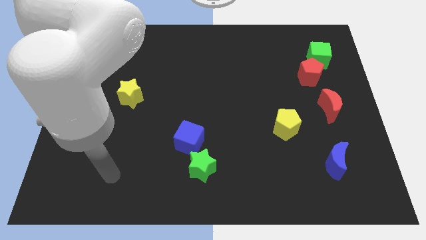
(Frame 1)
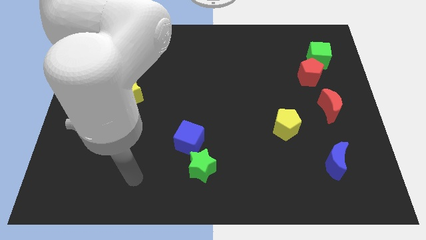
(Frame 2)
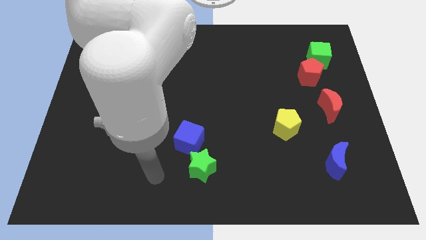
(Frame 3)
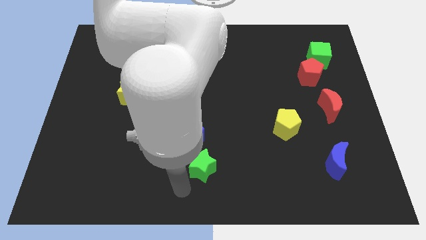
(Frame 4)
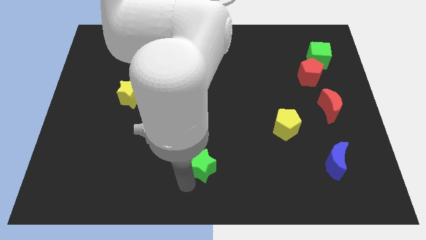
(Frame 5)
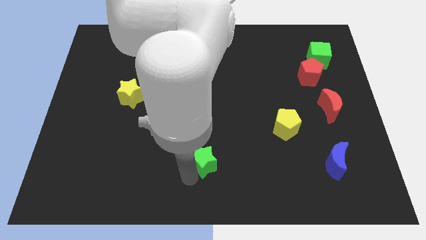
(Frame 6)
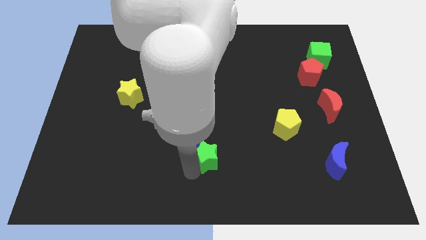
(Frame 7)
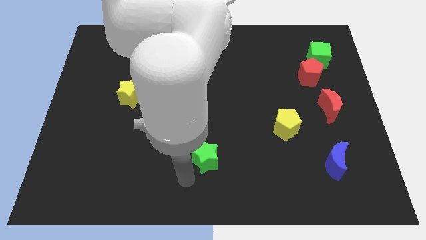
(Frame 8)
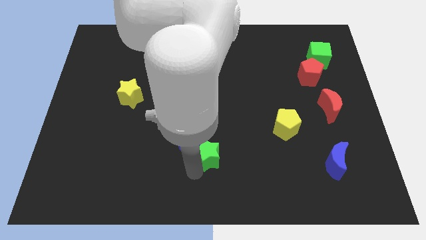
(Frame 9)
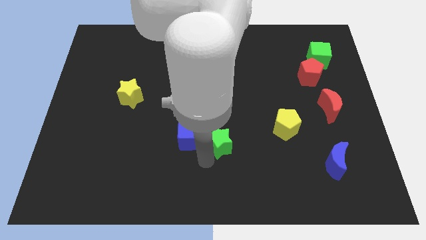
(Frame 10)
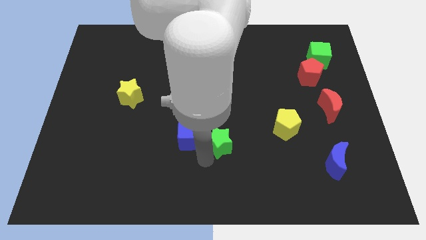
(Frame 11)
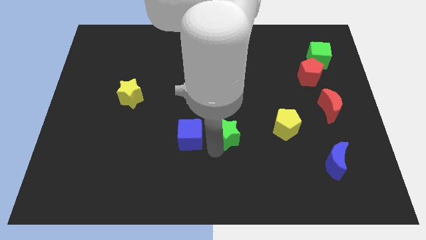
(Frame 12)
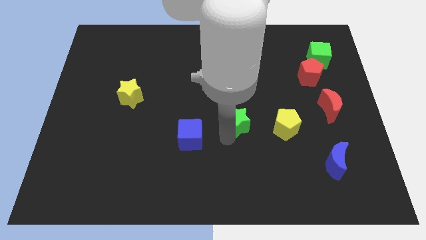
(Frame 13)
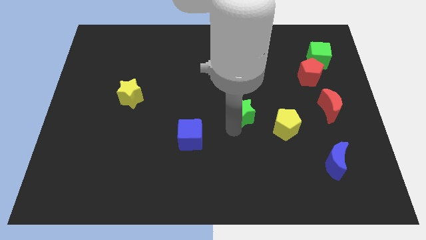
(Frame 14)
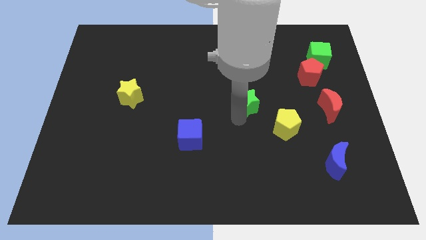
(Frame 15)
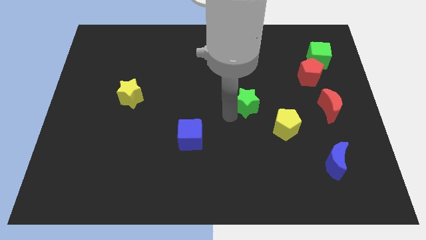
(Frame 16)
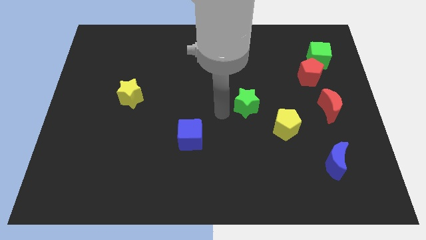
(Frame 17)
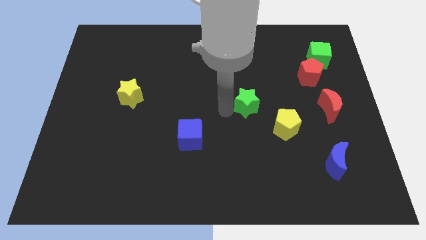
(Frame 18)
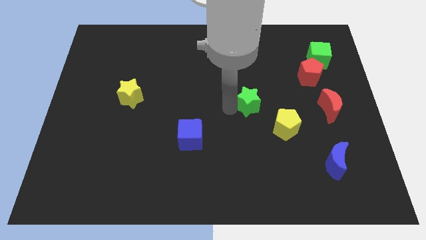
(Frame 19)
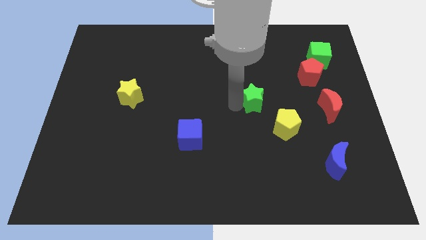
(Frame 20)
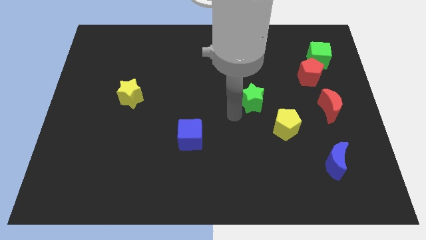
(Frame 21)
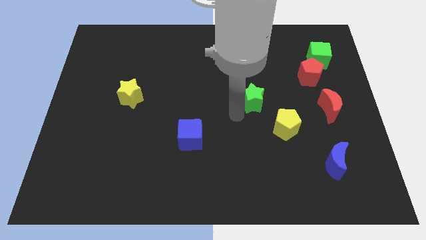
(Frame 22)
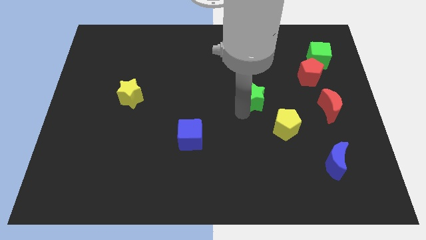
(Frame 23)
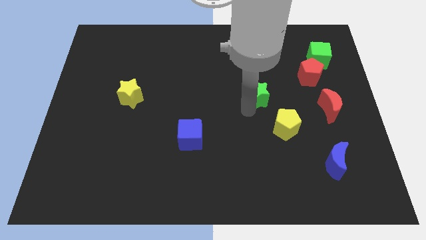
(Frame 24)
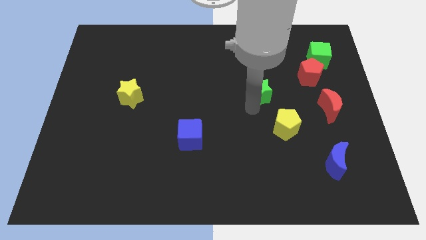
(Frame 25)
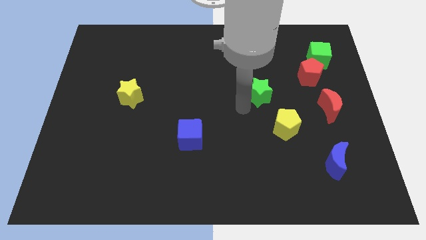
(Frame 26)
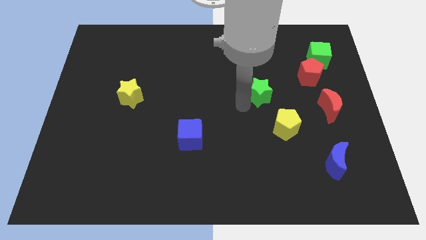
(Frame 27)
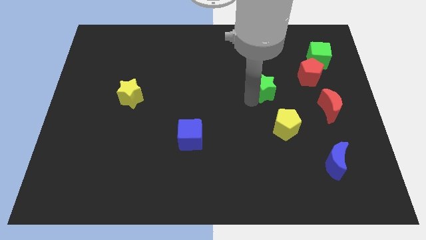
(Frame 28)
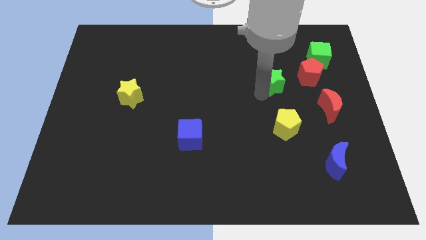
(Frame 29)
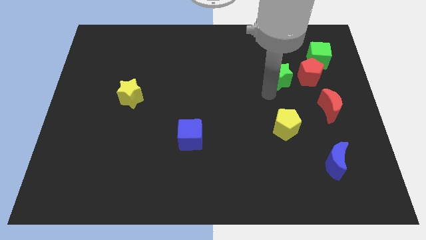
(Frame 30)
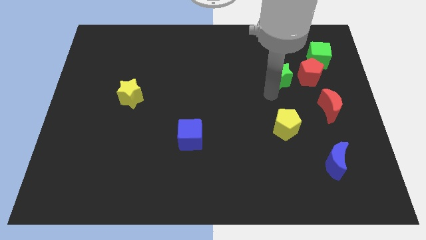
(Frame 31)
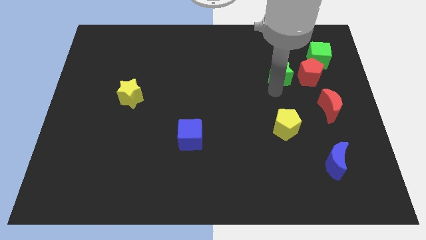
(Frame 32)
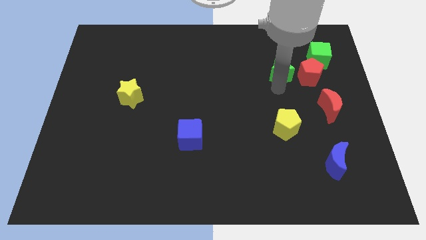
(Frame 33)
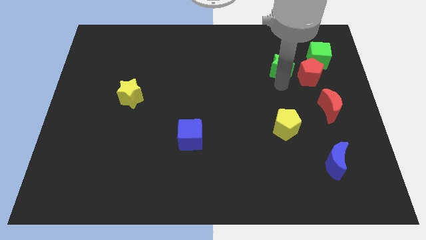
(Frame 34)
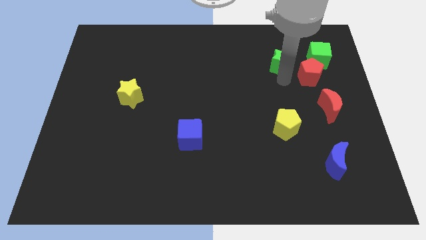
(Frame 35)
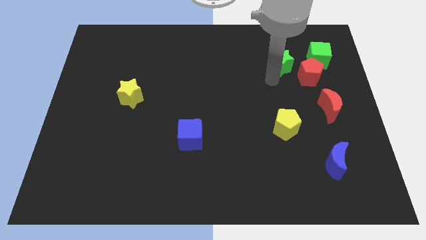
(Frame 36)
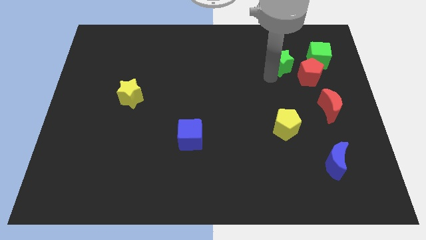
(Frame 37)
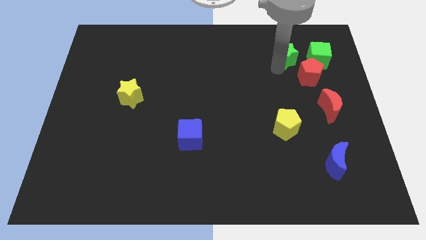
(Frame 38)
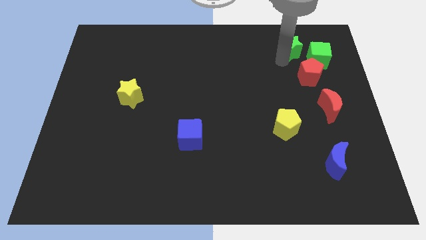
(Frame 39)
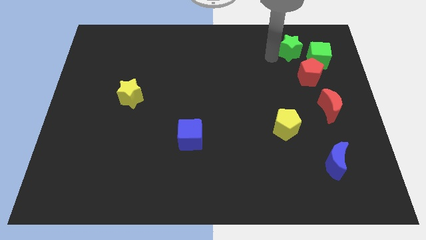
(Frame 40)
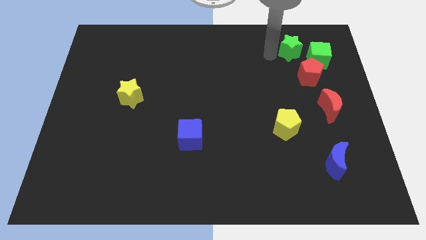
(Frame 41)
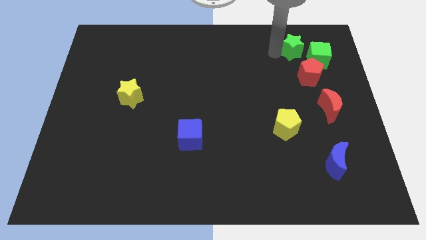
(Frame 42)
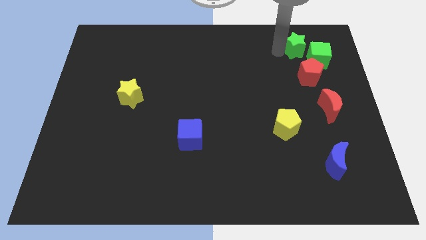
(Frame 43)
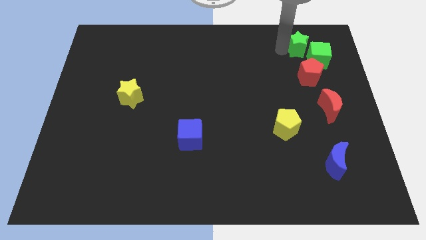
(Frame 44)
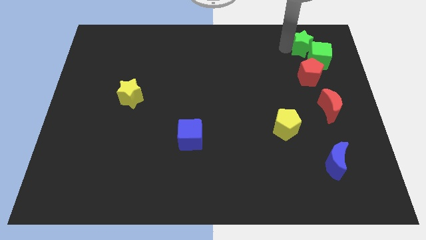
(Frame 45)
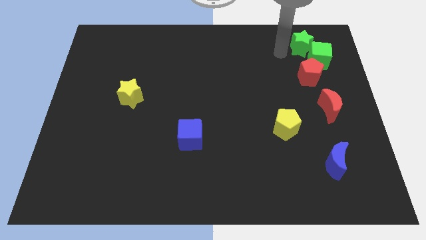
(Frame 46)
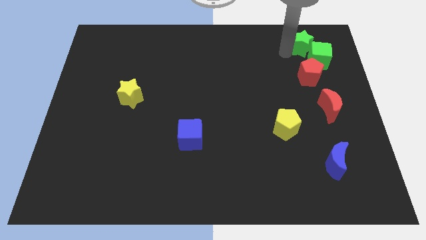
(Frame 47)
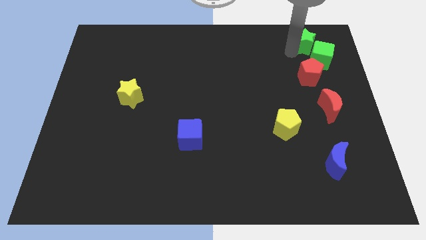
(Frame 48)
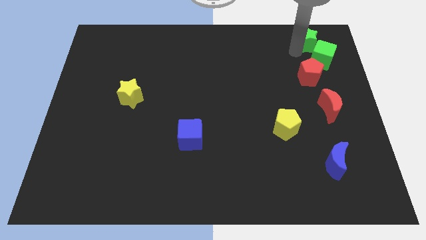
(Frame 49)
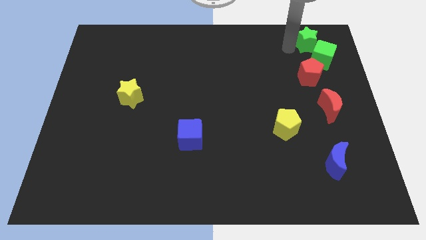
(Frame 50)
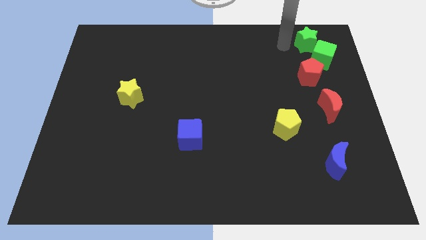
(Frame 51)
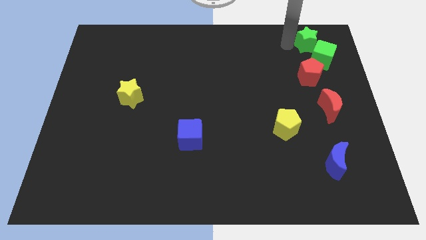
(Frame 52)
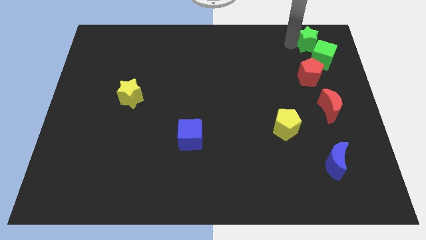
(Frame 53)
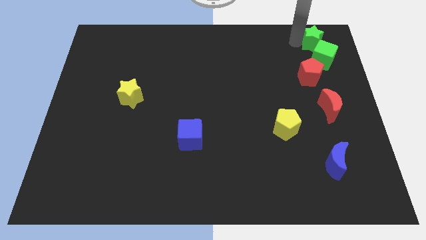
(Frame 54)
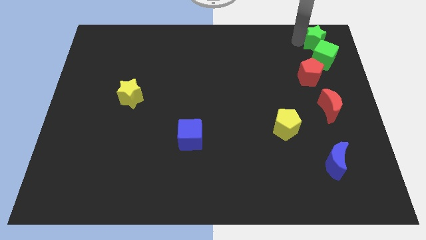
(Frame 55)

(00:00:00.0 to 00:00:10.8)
move the green star to the top right corner

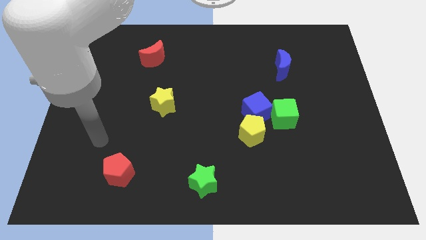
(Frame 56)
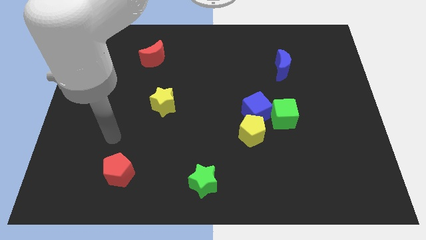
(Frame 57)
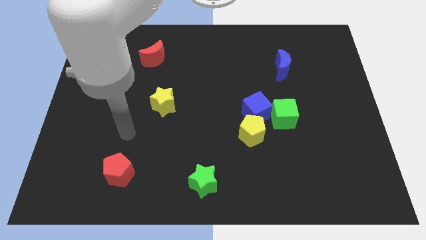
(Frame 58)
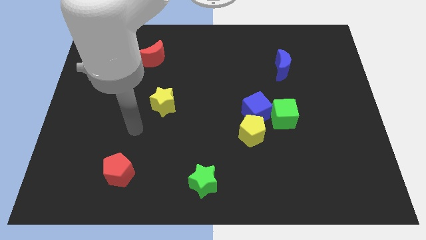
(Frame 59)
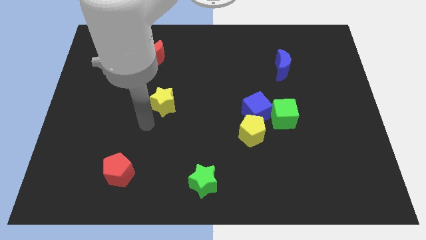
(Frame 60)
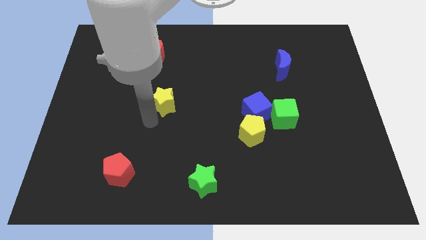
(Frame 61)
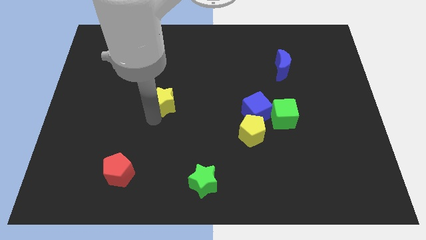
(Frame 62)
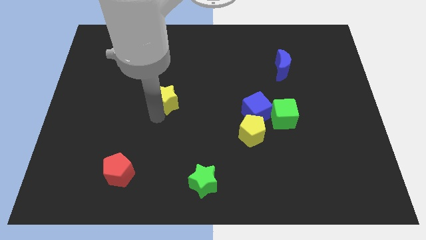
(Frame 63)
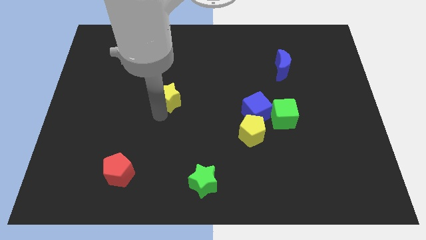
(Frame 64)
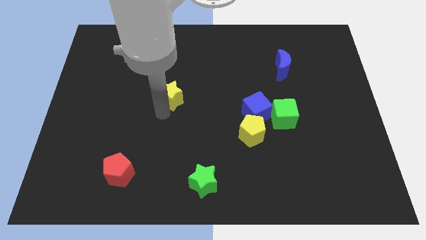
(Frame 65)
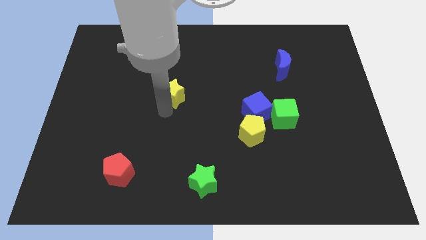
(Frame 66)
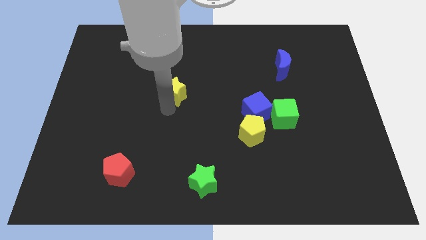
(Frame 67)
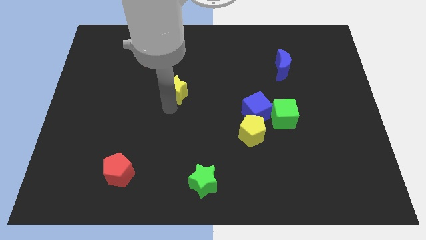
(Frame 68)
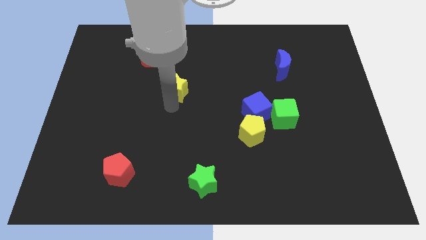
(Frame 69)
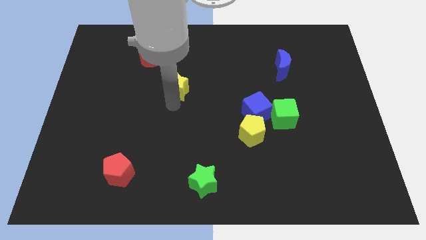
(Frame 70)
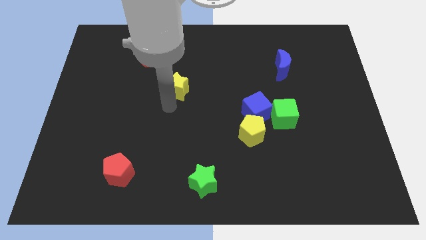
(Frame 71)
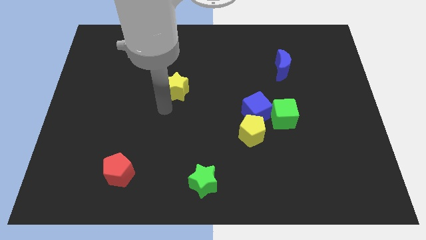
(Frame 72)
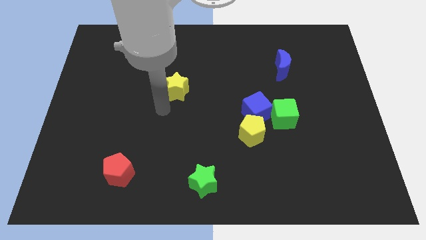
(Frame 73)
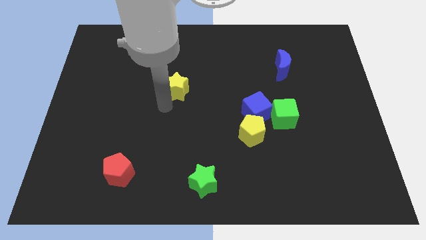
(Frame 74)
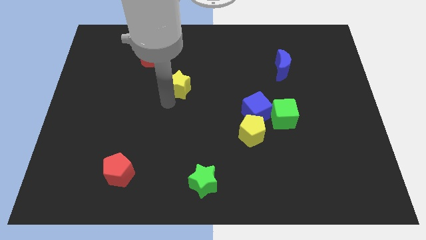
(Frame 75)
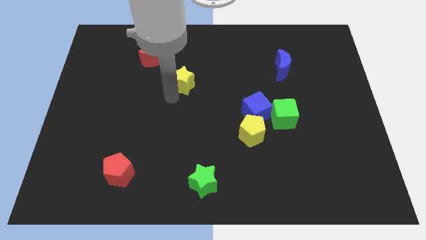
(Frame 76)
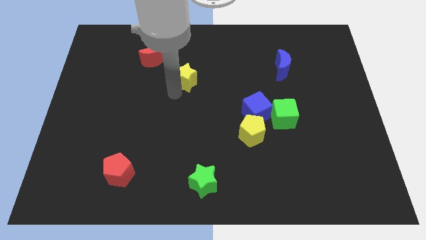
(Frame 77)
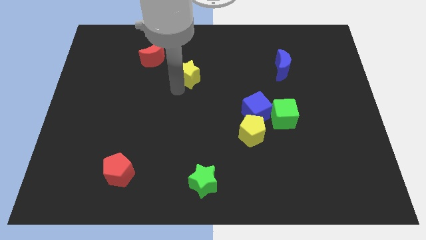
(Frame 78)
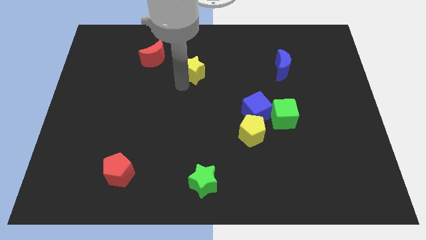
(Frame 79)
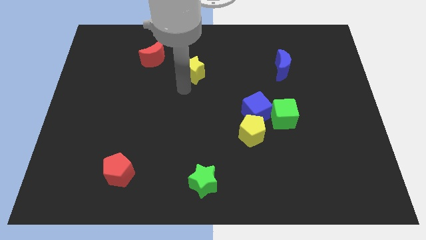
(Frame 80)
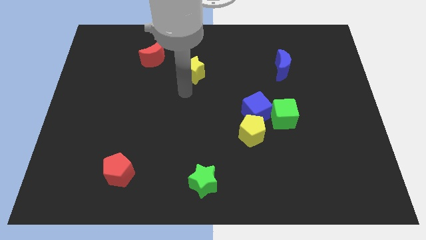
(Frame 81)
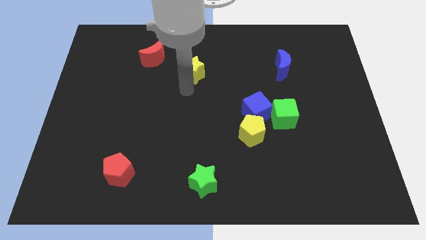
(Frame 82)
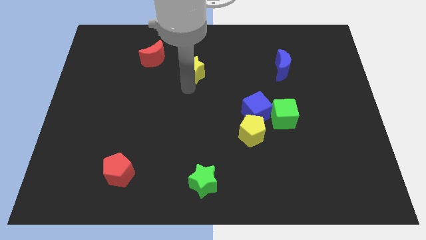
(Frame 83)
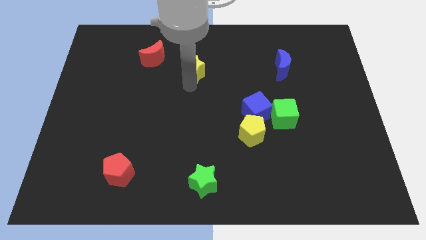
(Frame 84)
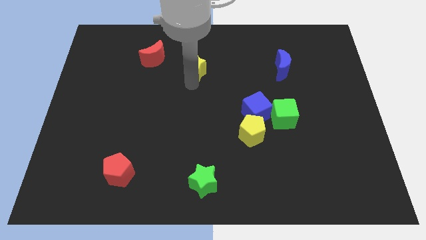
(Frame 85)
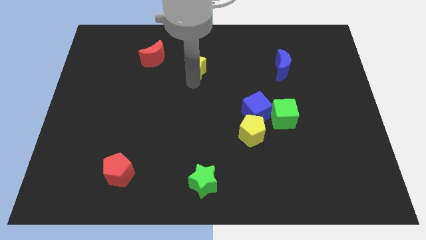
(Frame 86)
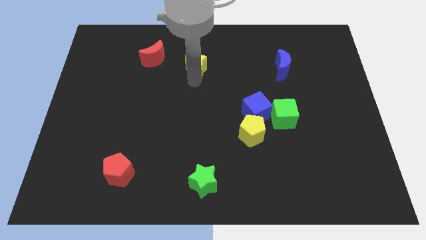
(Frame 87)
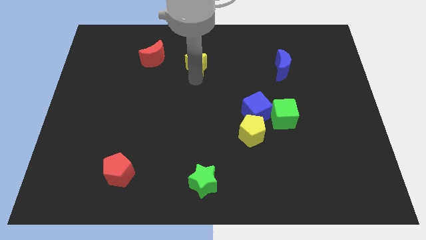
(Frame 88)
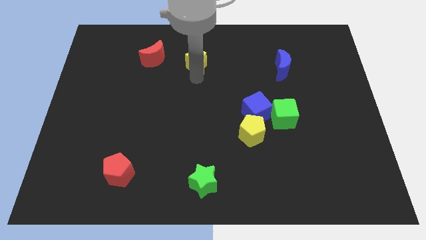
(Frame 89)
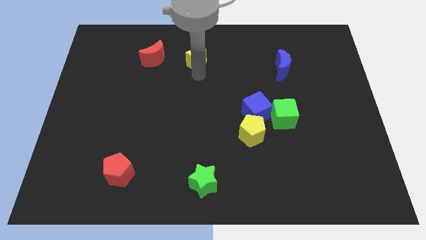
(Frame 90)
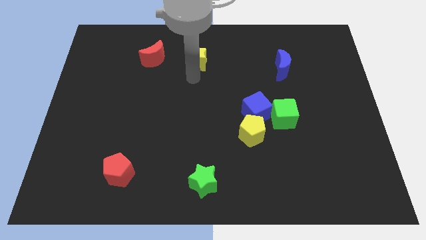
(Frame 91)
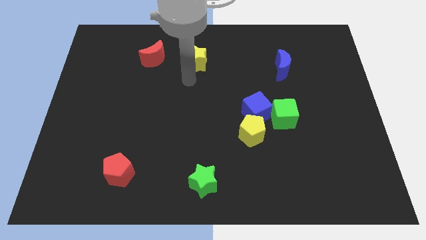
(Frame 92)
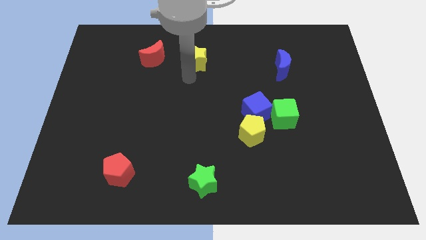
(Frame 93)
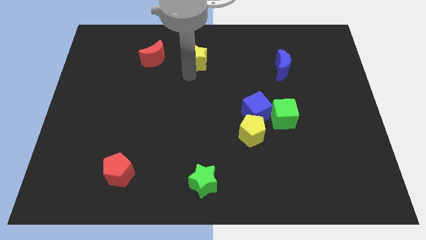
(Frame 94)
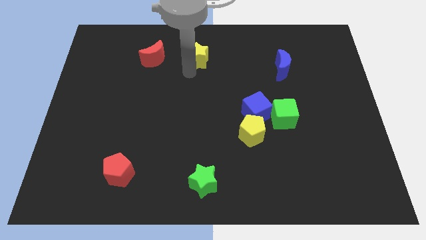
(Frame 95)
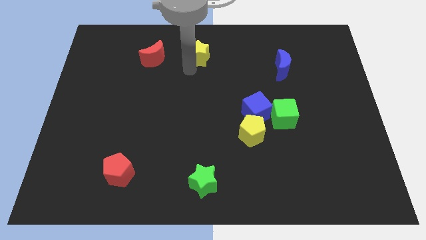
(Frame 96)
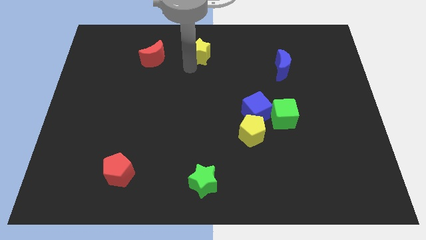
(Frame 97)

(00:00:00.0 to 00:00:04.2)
slide the yellow star to the towards your base
